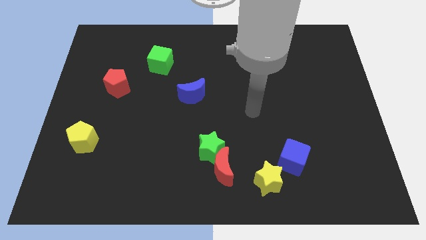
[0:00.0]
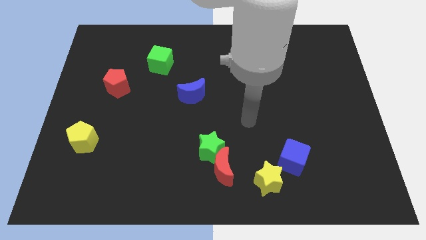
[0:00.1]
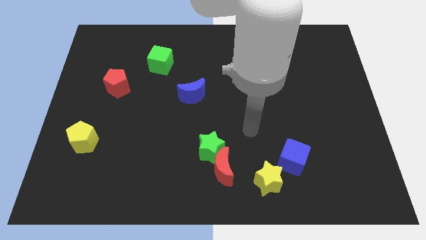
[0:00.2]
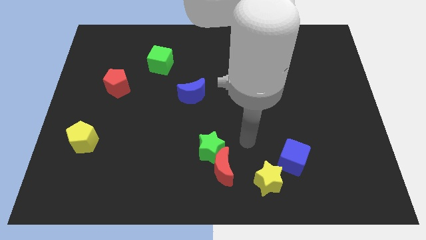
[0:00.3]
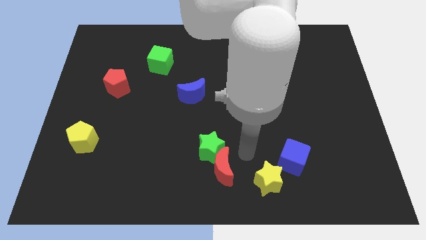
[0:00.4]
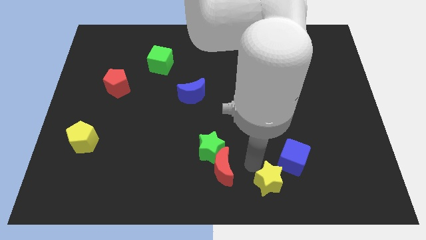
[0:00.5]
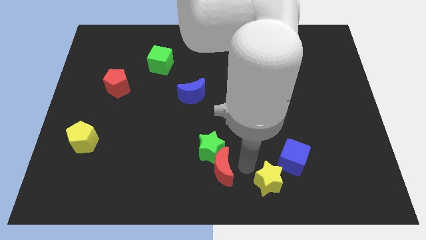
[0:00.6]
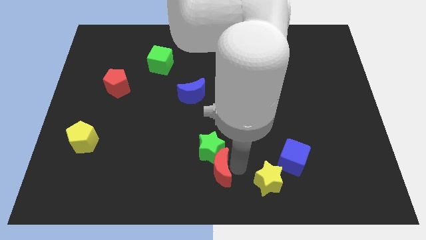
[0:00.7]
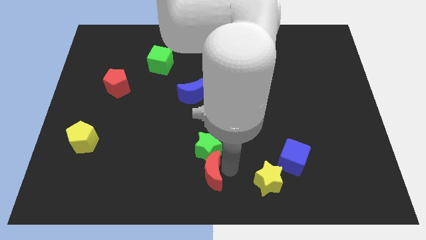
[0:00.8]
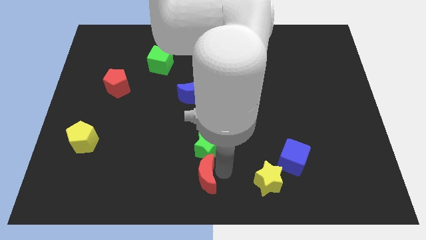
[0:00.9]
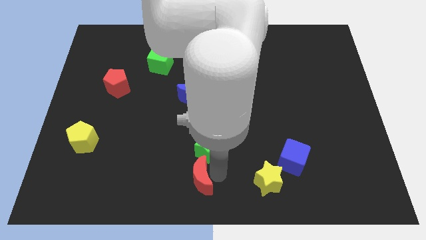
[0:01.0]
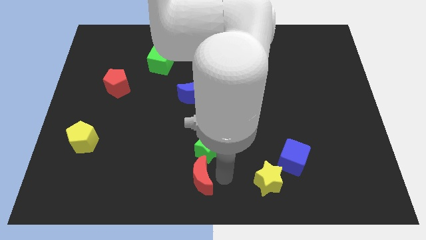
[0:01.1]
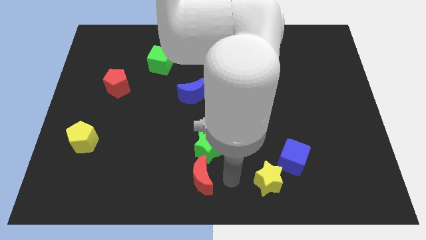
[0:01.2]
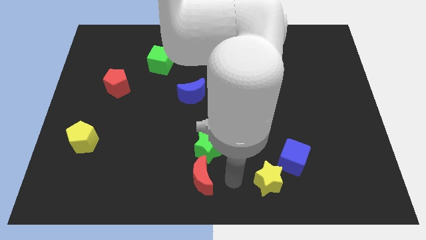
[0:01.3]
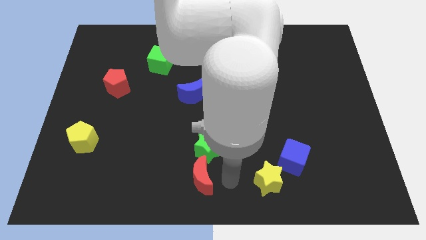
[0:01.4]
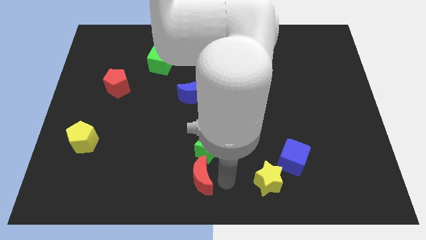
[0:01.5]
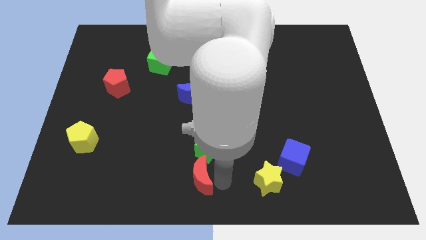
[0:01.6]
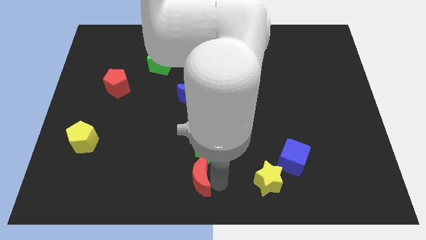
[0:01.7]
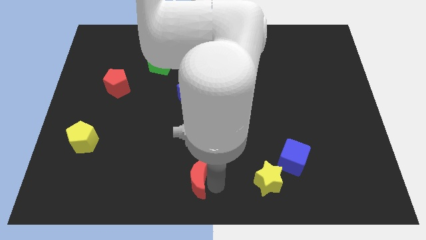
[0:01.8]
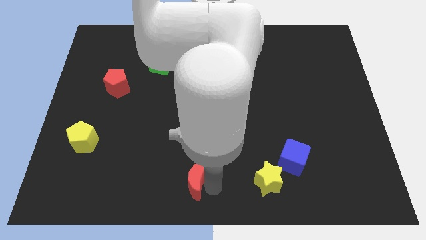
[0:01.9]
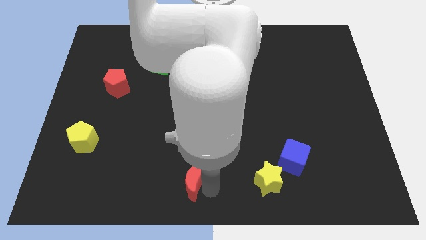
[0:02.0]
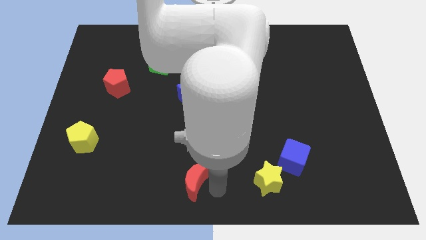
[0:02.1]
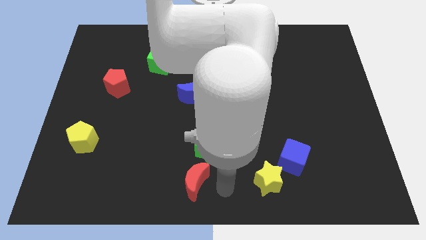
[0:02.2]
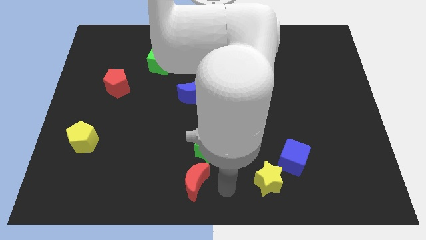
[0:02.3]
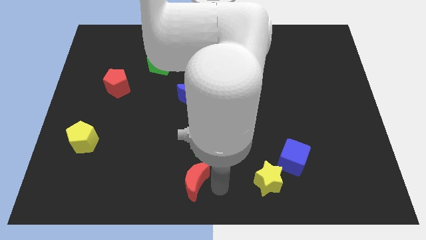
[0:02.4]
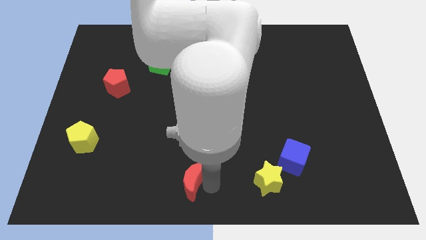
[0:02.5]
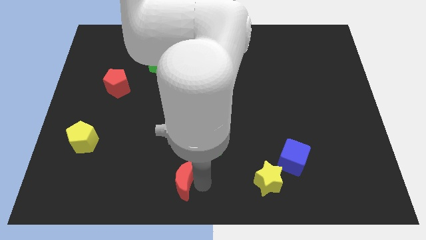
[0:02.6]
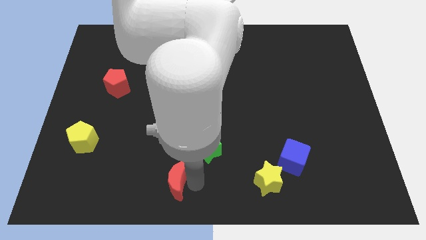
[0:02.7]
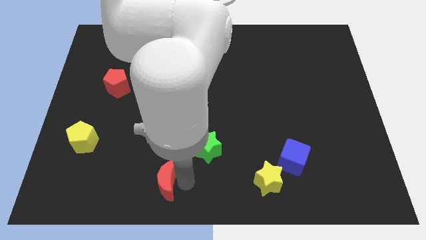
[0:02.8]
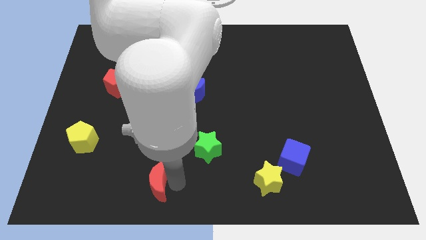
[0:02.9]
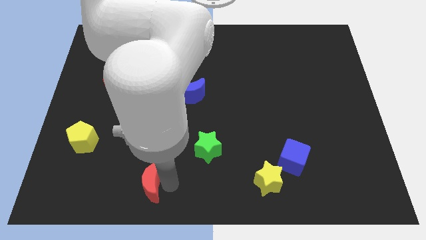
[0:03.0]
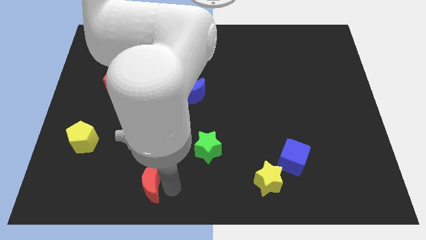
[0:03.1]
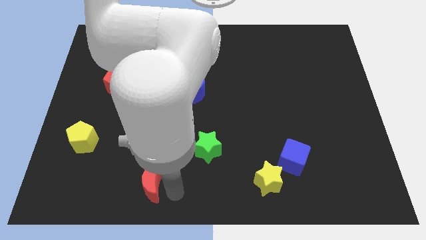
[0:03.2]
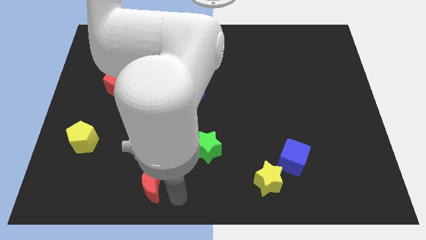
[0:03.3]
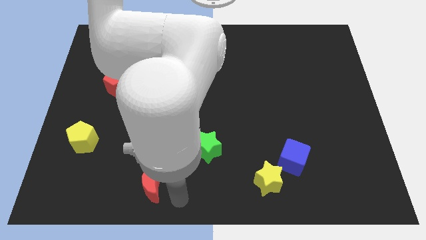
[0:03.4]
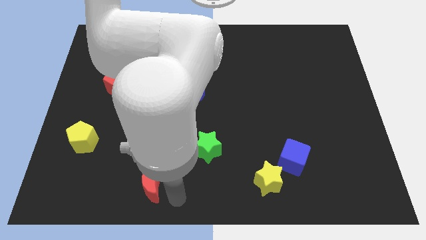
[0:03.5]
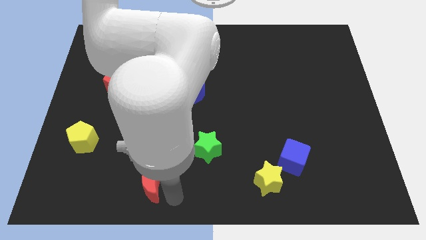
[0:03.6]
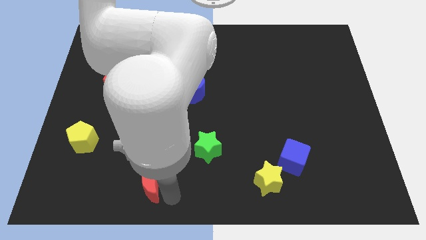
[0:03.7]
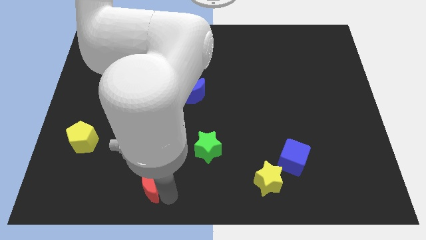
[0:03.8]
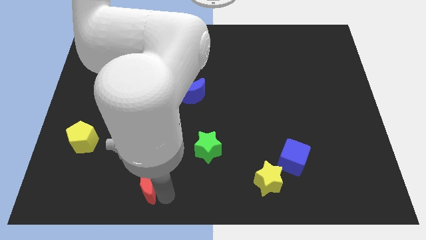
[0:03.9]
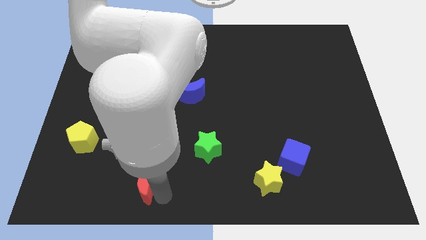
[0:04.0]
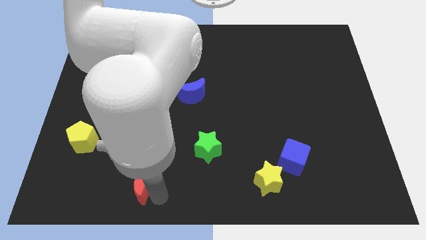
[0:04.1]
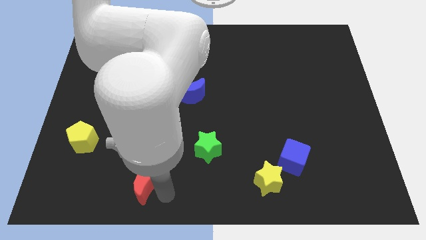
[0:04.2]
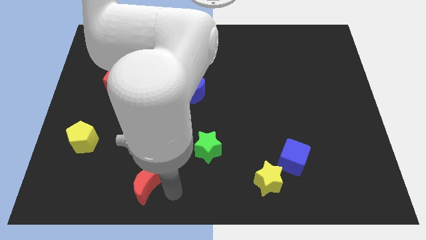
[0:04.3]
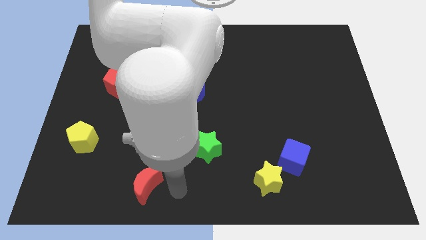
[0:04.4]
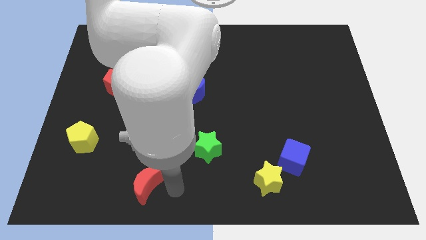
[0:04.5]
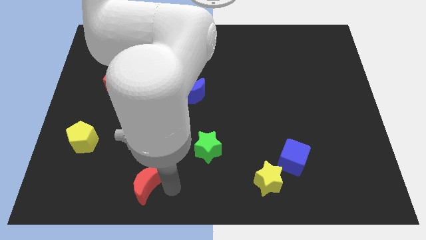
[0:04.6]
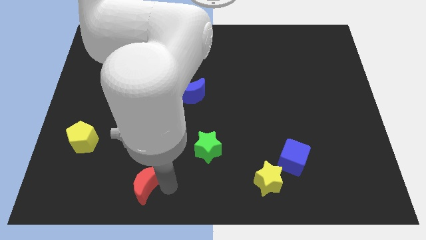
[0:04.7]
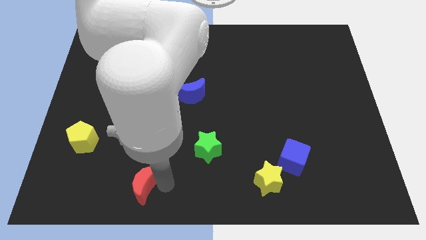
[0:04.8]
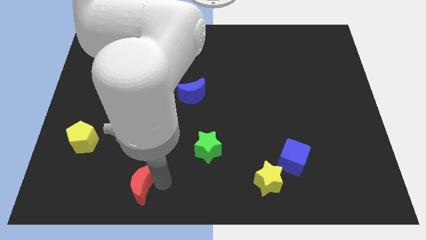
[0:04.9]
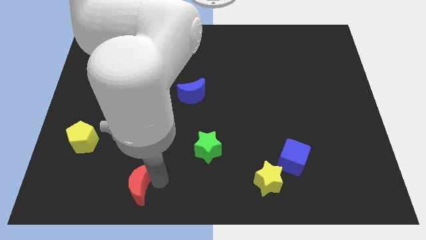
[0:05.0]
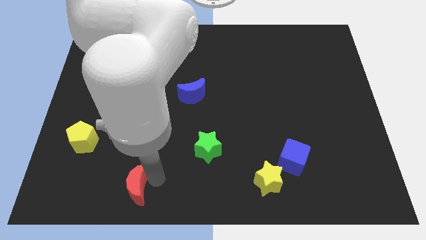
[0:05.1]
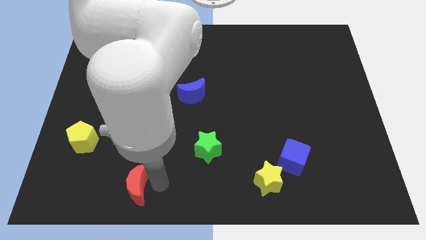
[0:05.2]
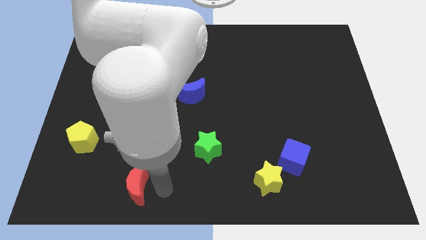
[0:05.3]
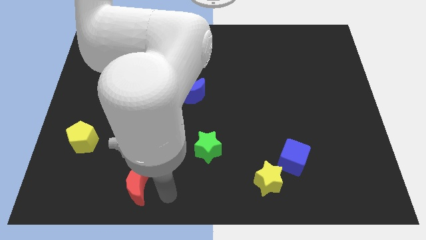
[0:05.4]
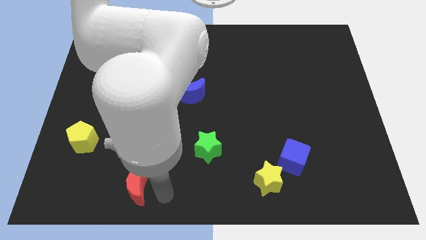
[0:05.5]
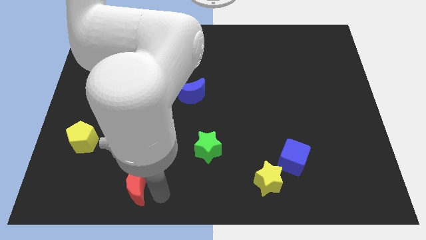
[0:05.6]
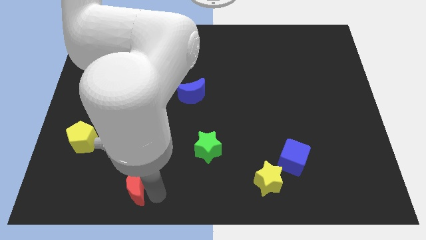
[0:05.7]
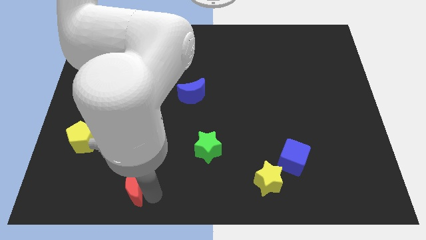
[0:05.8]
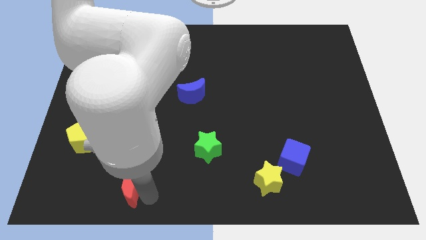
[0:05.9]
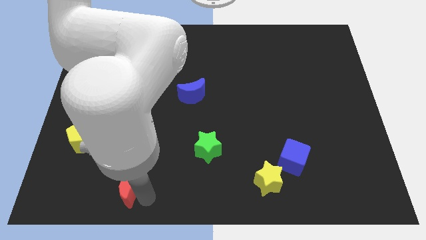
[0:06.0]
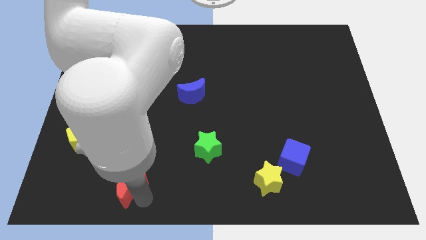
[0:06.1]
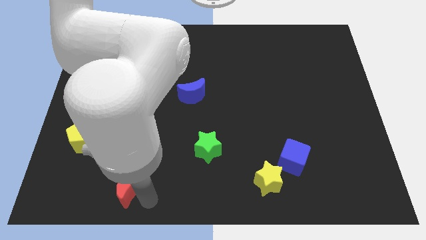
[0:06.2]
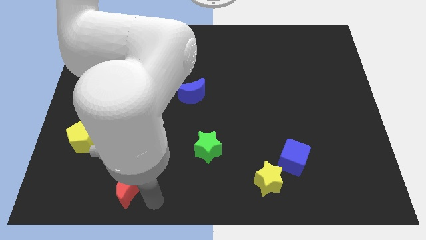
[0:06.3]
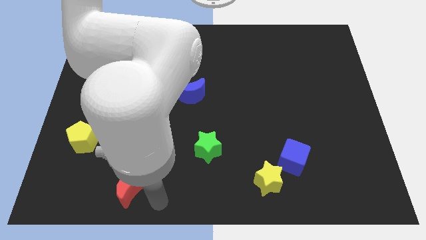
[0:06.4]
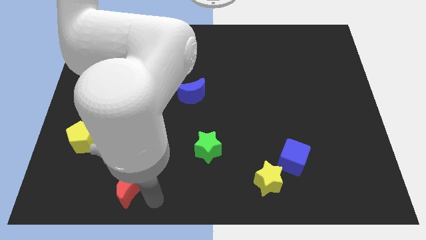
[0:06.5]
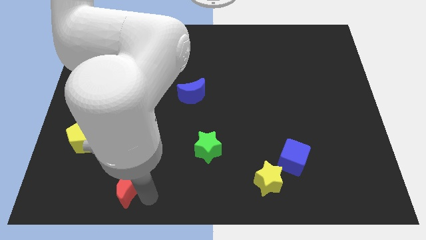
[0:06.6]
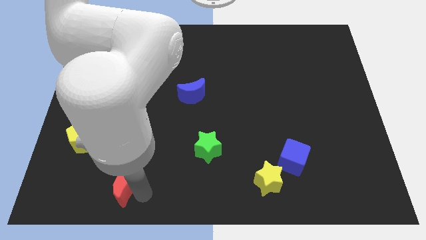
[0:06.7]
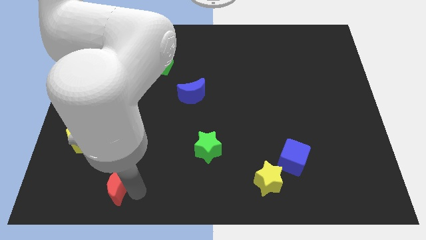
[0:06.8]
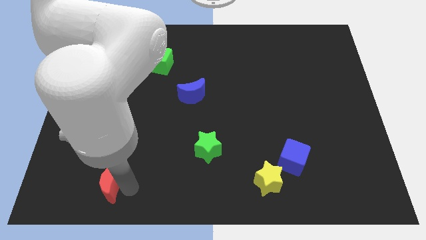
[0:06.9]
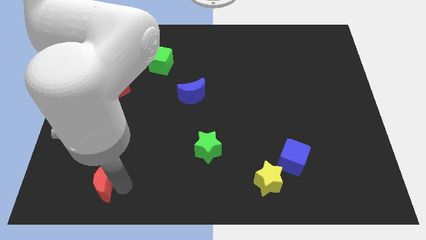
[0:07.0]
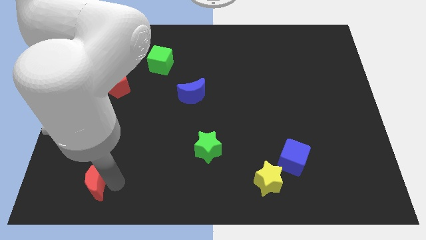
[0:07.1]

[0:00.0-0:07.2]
move the red moon below the yellow pentagon
